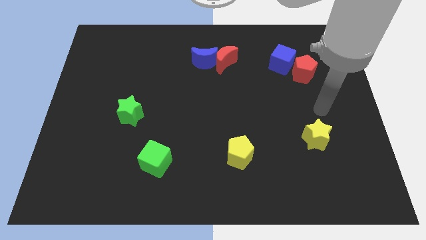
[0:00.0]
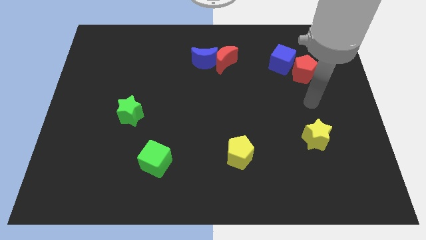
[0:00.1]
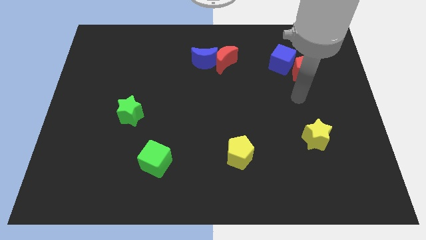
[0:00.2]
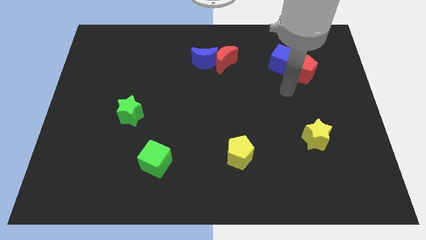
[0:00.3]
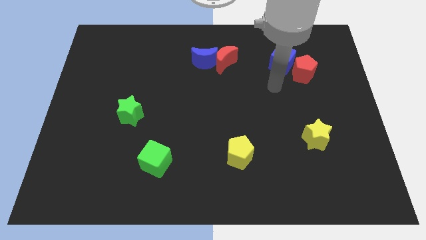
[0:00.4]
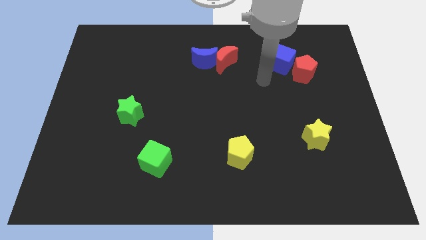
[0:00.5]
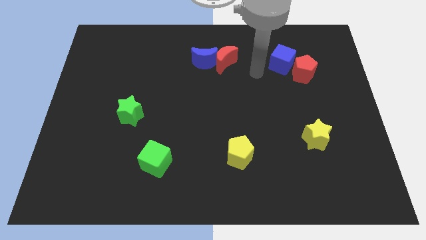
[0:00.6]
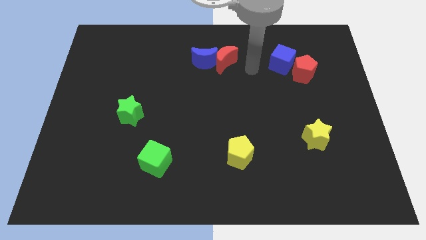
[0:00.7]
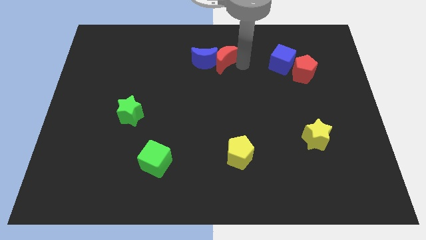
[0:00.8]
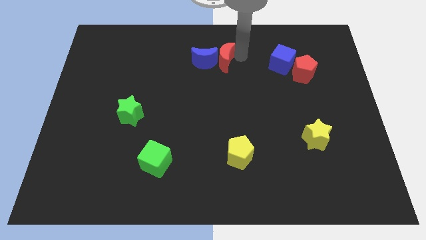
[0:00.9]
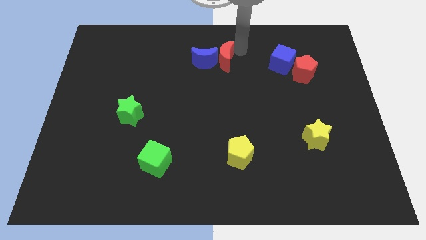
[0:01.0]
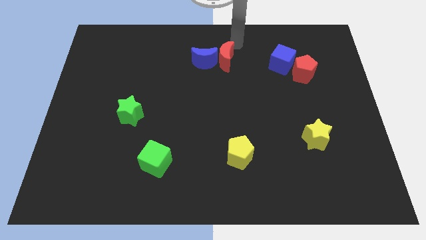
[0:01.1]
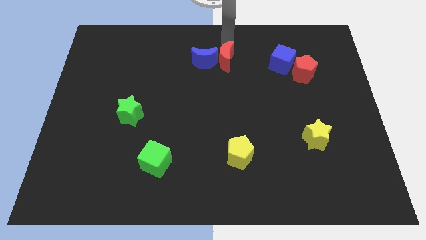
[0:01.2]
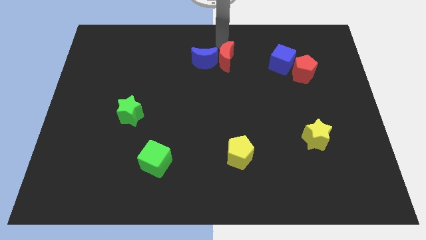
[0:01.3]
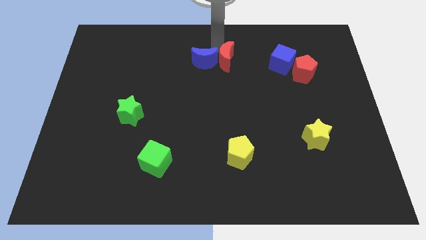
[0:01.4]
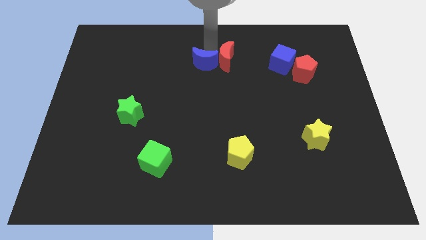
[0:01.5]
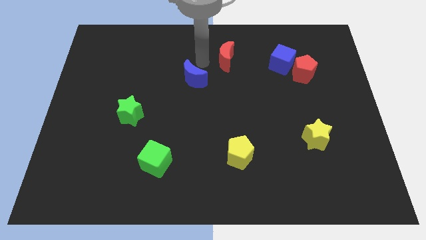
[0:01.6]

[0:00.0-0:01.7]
pull the red moon apart from the blue moon

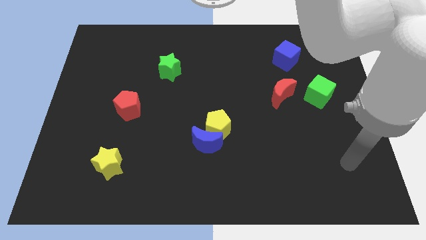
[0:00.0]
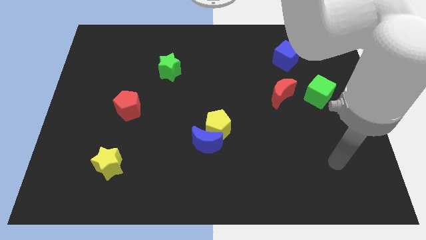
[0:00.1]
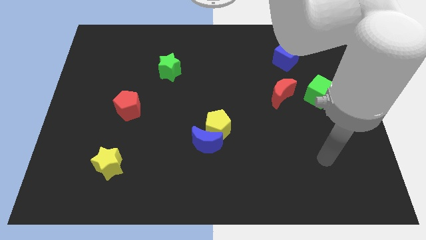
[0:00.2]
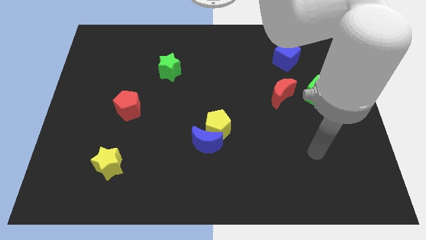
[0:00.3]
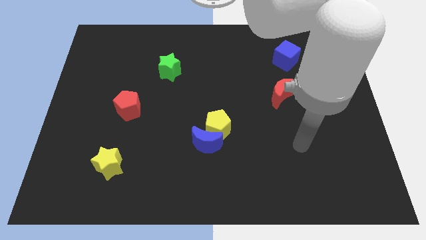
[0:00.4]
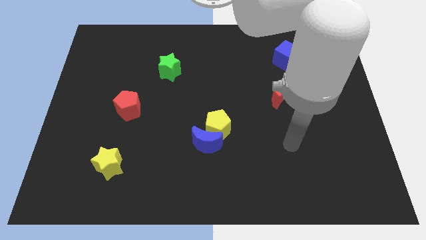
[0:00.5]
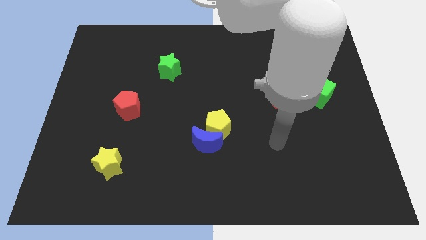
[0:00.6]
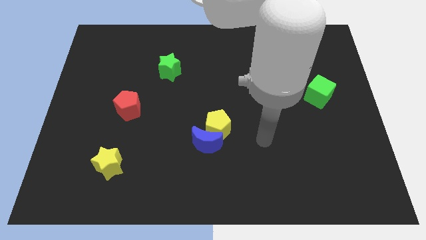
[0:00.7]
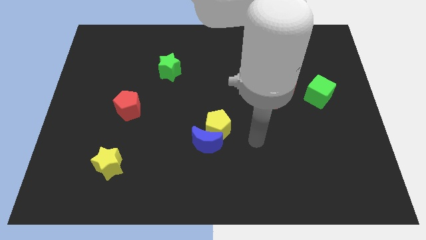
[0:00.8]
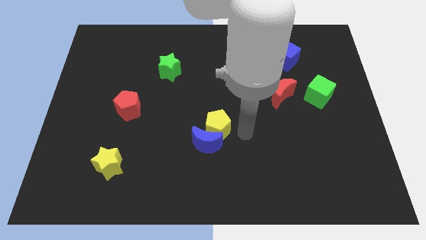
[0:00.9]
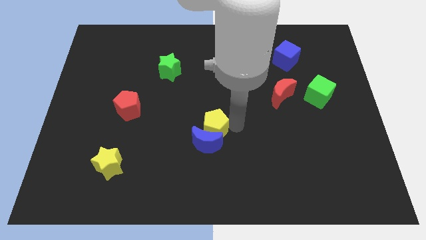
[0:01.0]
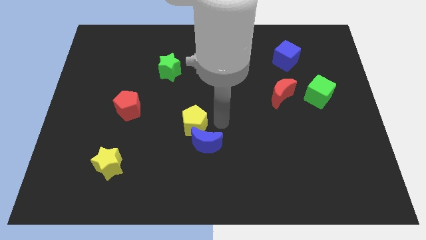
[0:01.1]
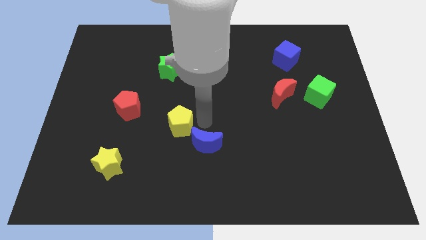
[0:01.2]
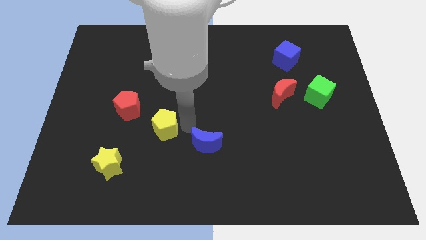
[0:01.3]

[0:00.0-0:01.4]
pull the blue moon apart from the yellow pentagon

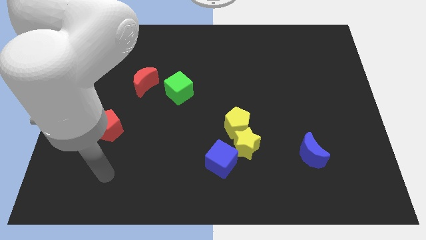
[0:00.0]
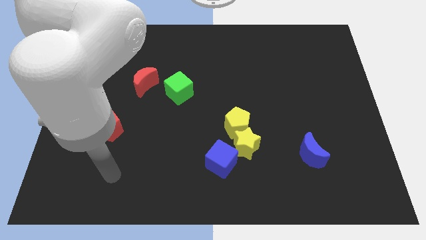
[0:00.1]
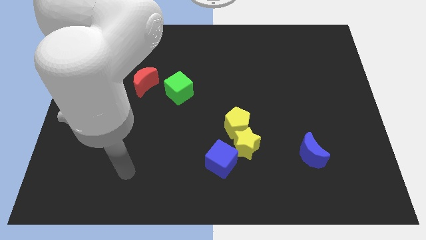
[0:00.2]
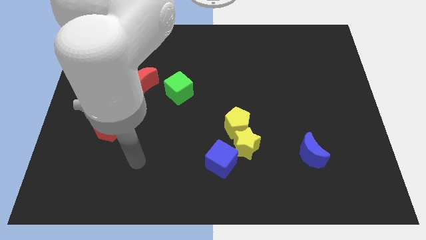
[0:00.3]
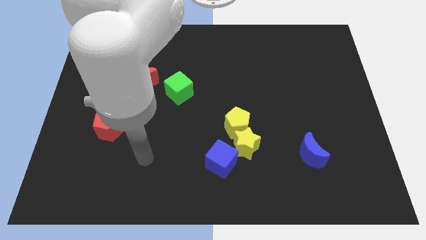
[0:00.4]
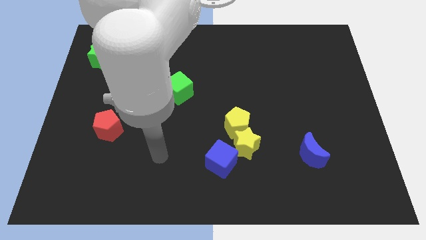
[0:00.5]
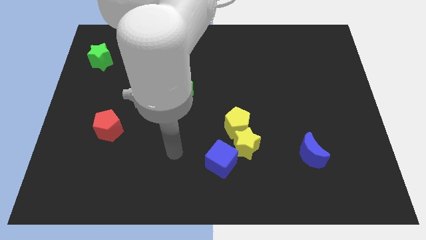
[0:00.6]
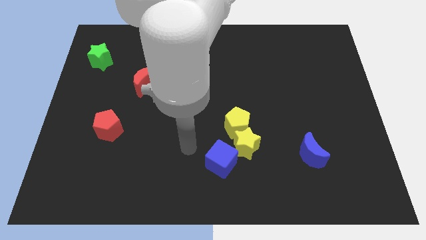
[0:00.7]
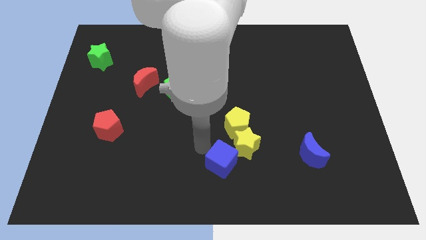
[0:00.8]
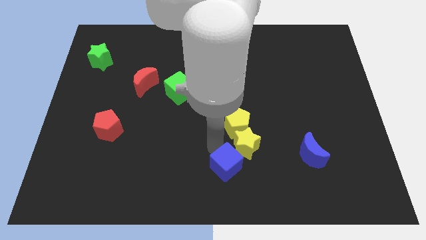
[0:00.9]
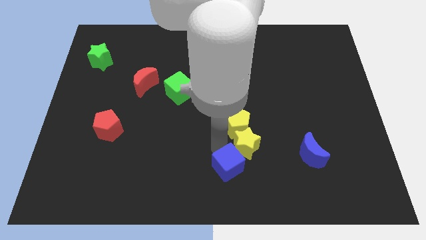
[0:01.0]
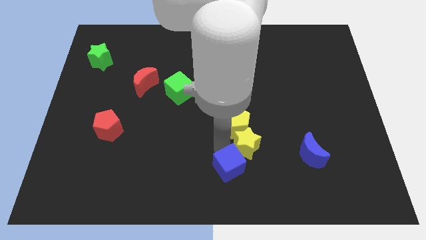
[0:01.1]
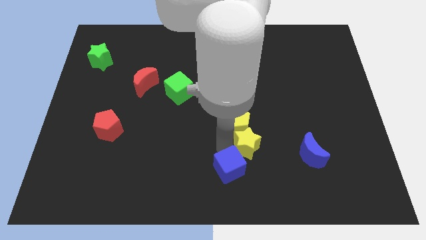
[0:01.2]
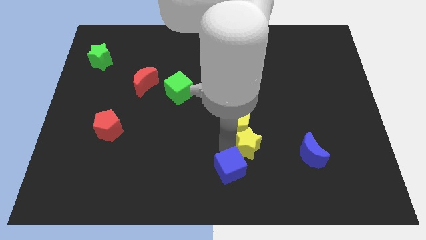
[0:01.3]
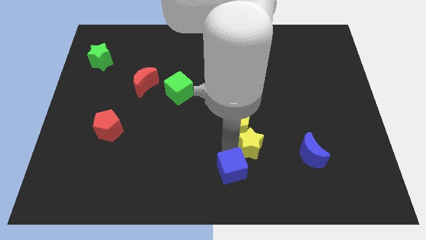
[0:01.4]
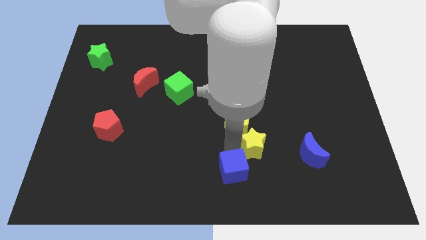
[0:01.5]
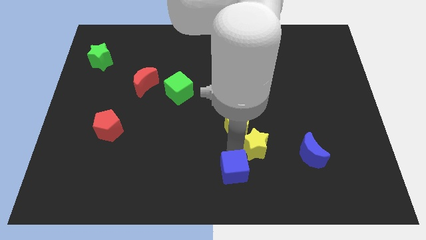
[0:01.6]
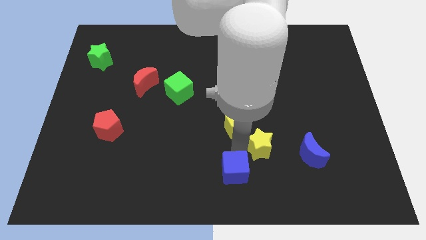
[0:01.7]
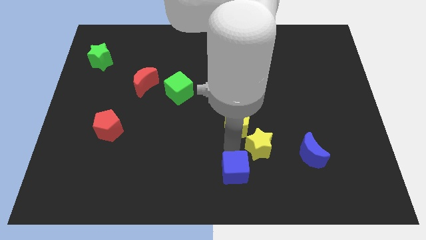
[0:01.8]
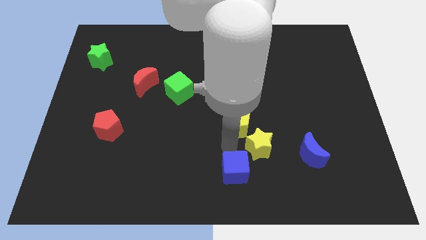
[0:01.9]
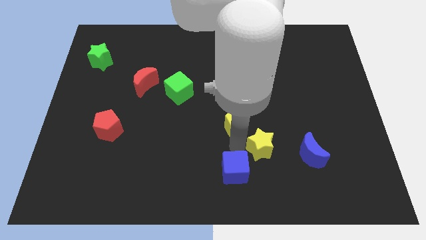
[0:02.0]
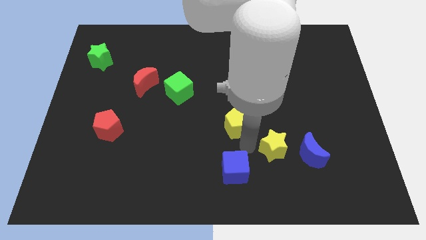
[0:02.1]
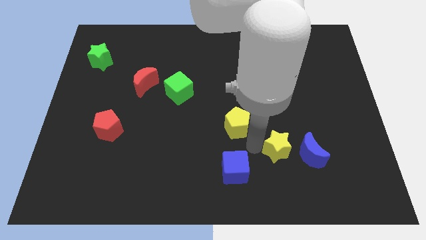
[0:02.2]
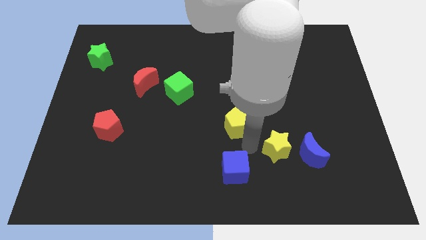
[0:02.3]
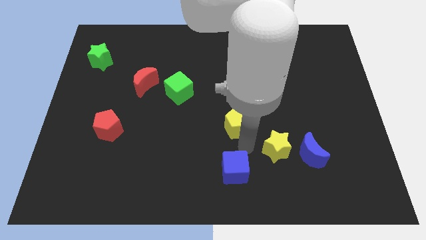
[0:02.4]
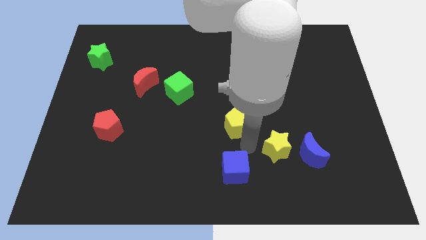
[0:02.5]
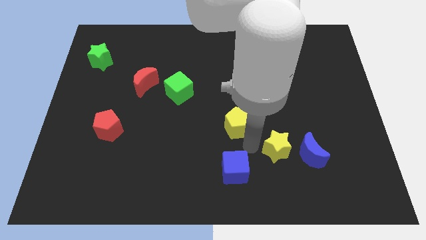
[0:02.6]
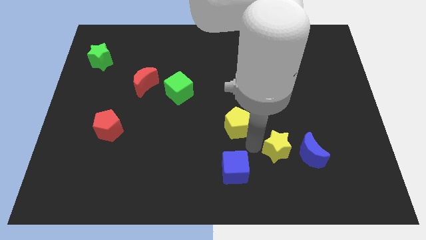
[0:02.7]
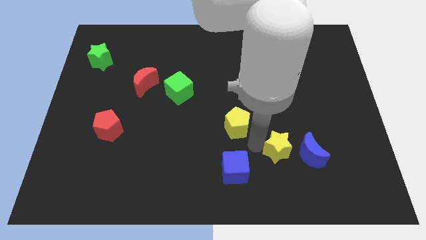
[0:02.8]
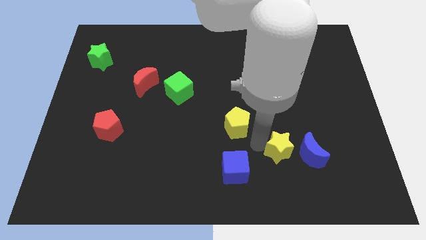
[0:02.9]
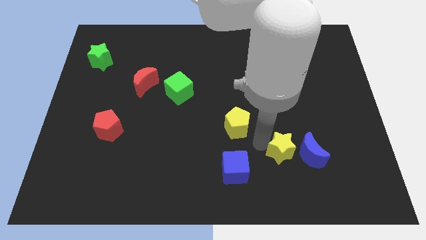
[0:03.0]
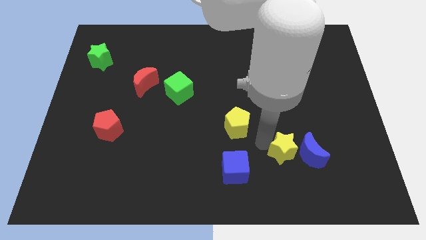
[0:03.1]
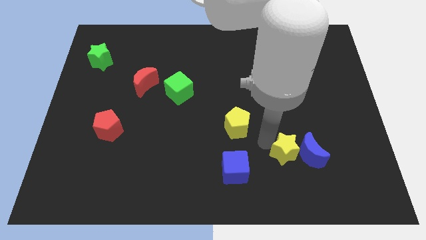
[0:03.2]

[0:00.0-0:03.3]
separate the yellow star from the yellow pentagon and blue cube

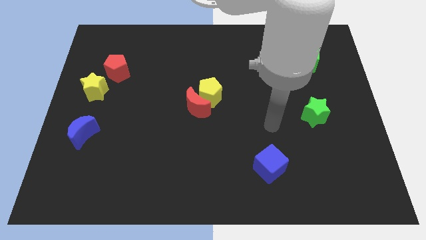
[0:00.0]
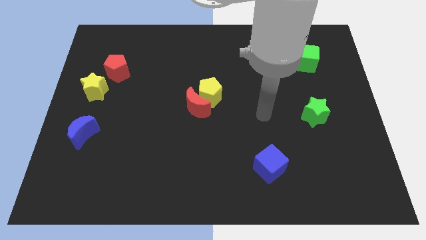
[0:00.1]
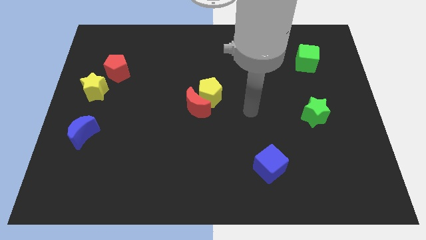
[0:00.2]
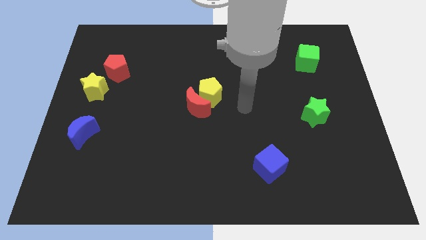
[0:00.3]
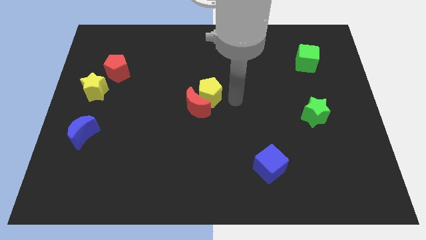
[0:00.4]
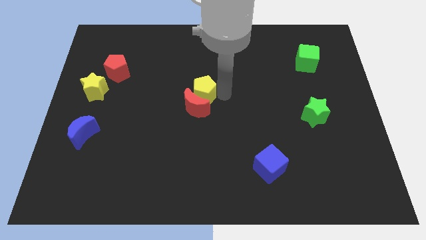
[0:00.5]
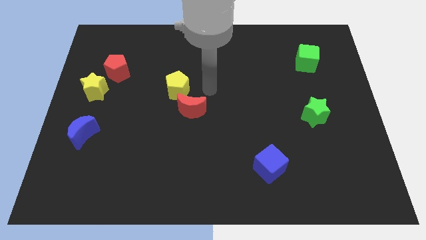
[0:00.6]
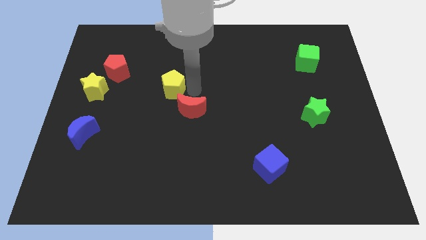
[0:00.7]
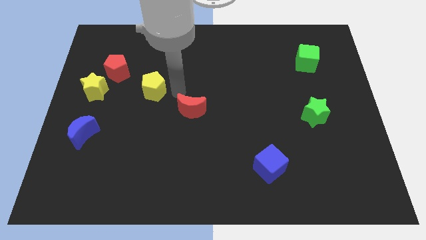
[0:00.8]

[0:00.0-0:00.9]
separate the red moon from the yellow pentagon

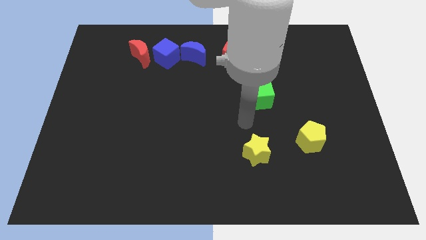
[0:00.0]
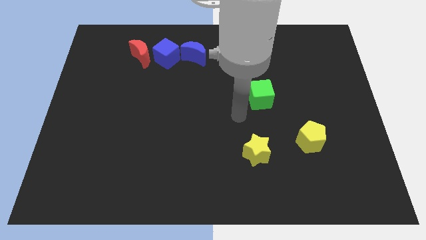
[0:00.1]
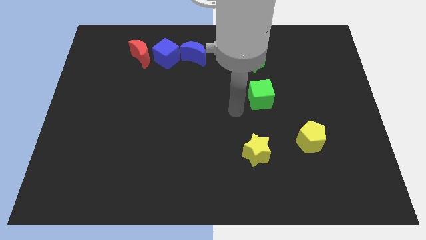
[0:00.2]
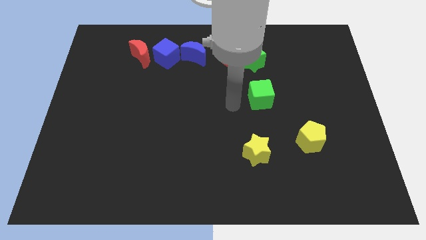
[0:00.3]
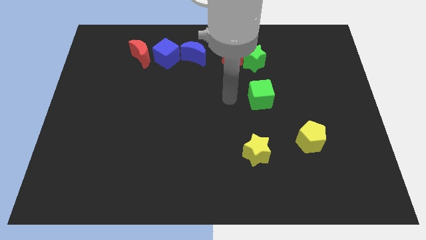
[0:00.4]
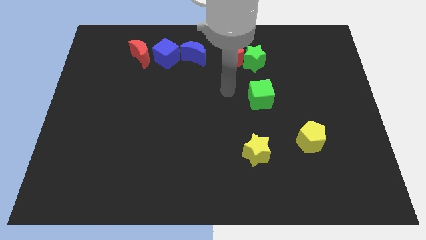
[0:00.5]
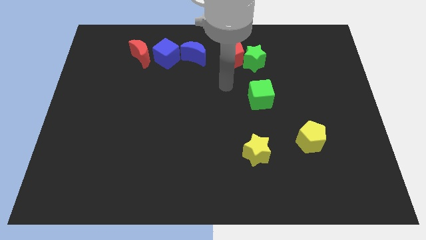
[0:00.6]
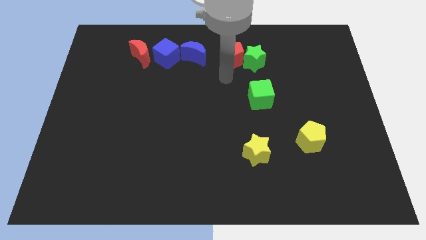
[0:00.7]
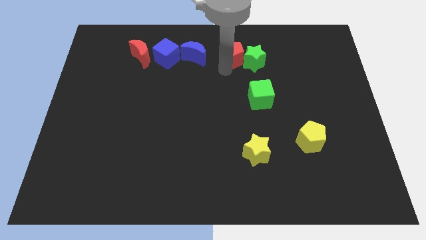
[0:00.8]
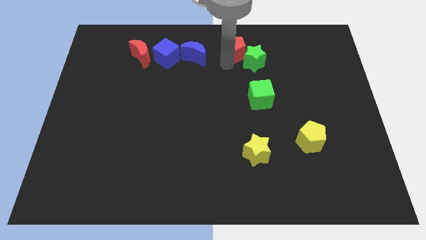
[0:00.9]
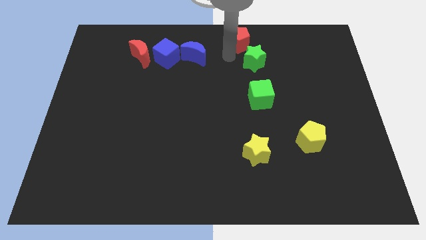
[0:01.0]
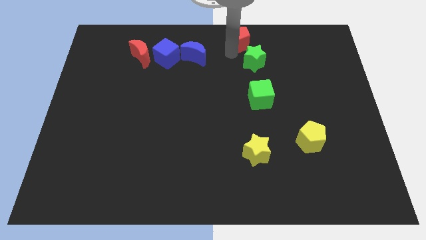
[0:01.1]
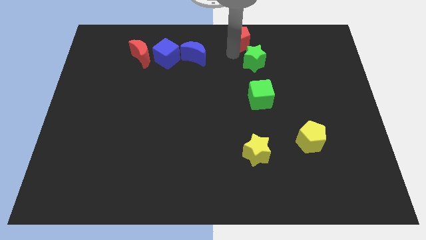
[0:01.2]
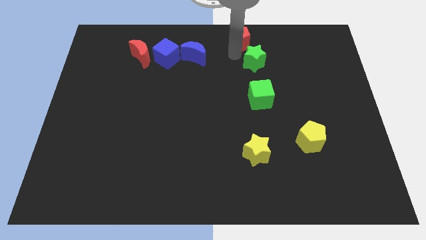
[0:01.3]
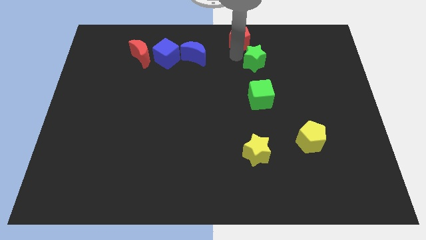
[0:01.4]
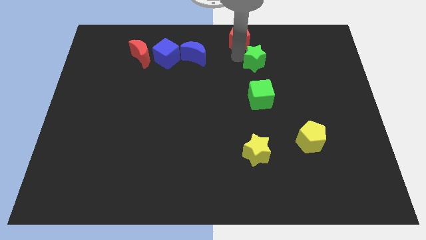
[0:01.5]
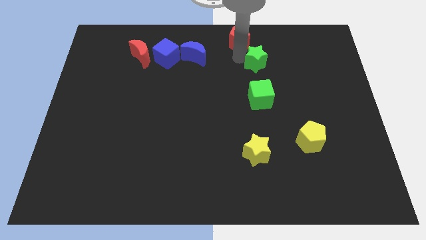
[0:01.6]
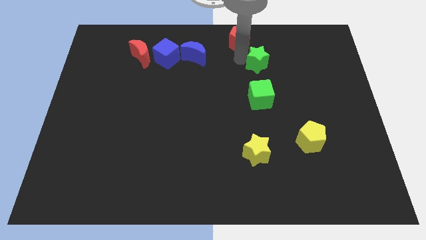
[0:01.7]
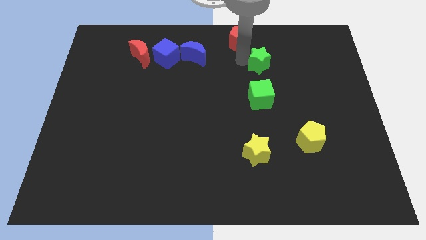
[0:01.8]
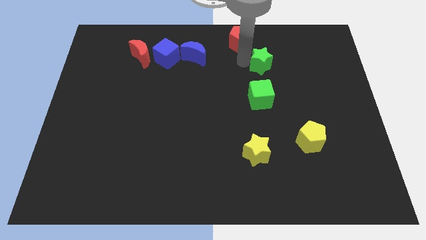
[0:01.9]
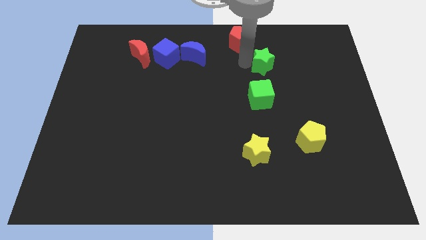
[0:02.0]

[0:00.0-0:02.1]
separate the green star from the red pentagon
